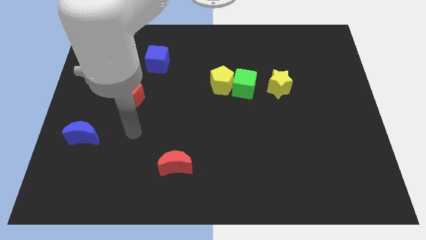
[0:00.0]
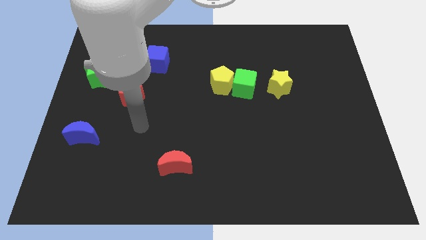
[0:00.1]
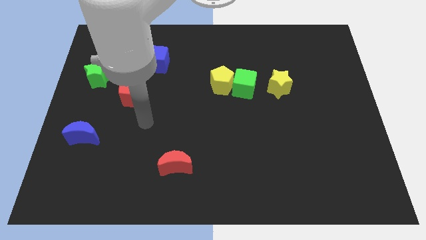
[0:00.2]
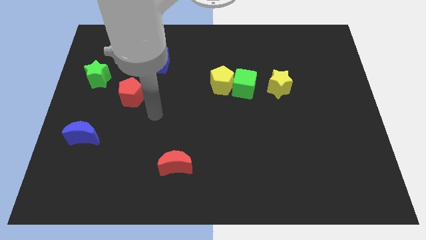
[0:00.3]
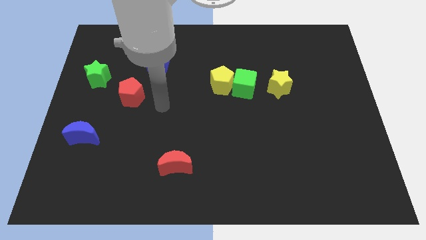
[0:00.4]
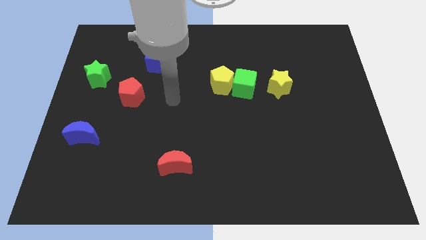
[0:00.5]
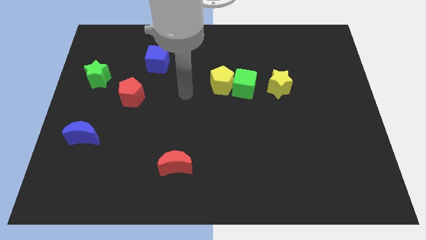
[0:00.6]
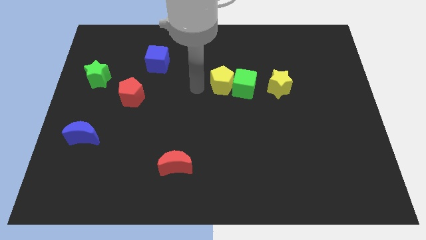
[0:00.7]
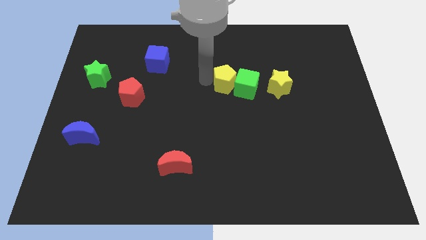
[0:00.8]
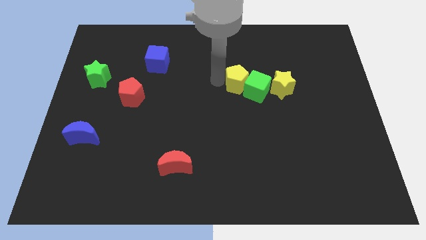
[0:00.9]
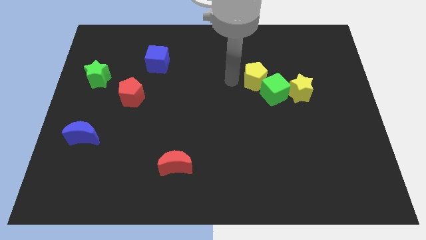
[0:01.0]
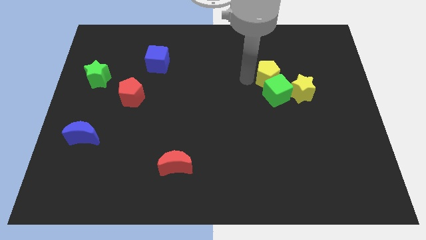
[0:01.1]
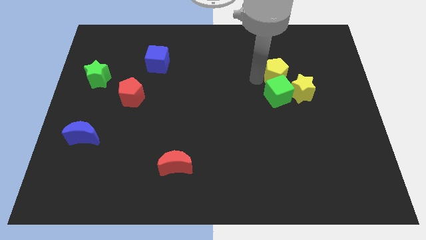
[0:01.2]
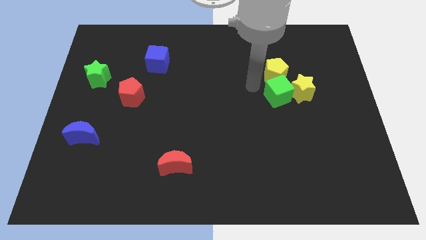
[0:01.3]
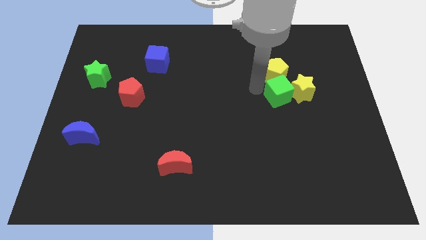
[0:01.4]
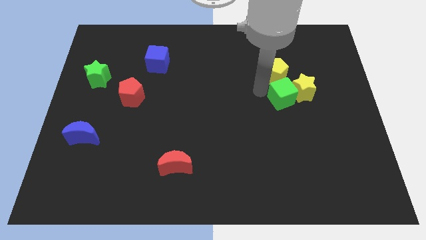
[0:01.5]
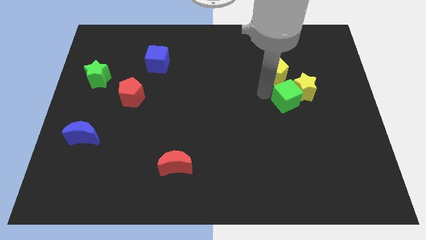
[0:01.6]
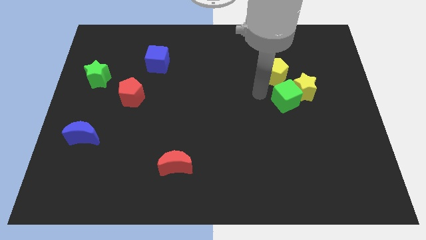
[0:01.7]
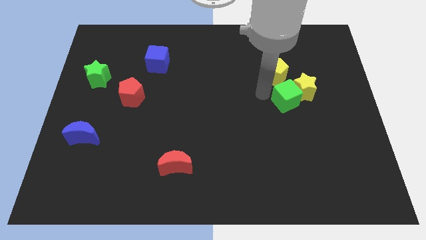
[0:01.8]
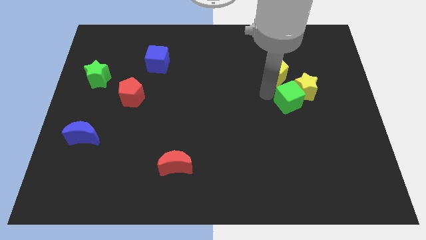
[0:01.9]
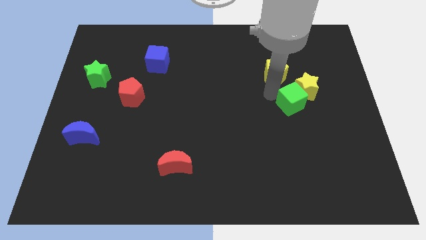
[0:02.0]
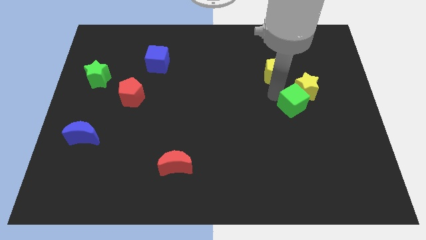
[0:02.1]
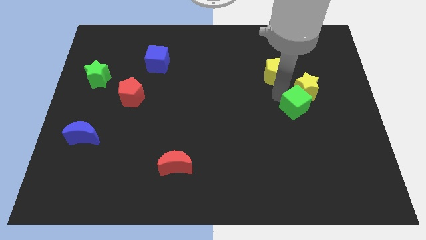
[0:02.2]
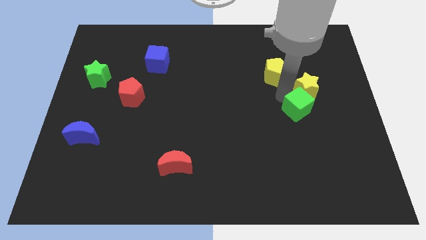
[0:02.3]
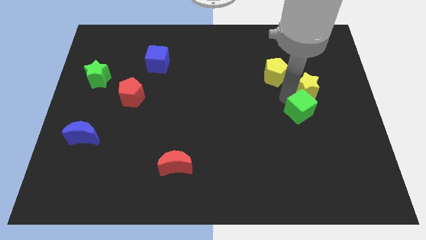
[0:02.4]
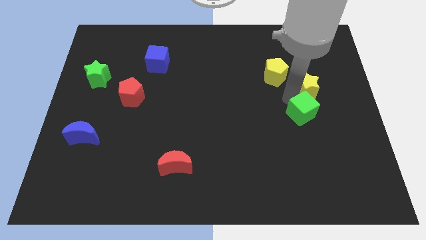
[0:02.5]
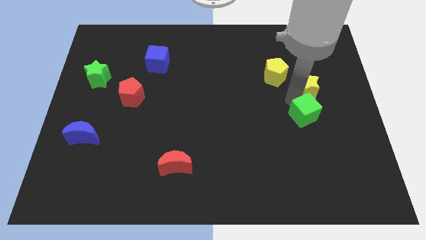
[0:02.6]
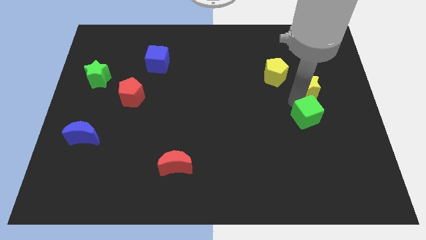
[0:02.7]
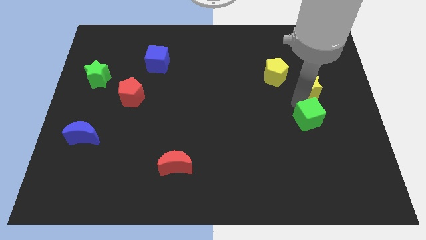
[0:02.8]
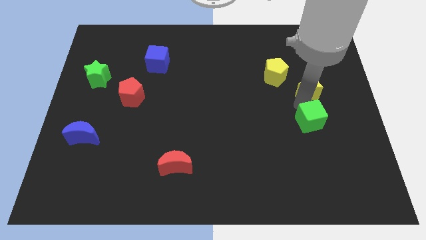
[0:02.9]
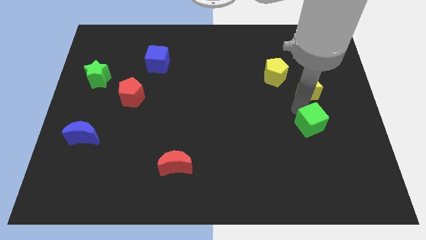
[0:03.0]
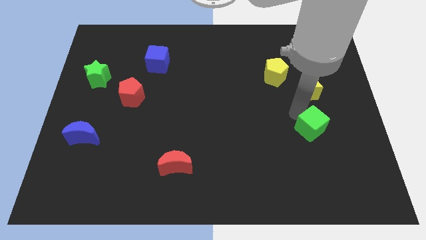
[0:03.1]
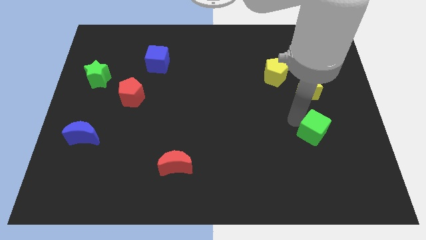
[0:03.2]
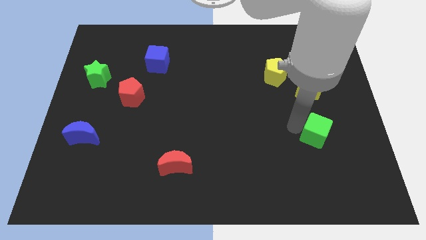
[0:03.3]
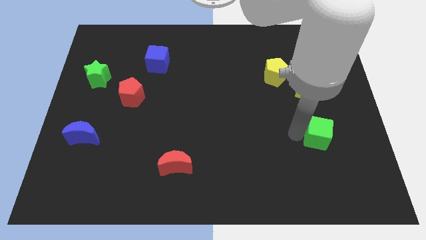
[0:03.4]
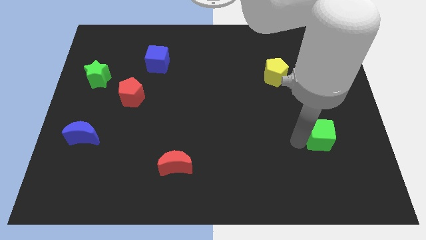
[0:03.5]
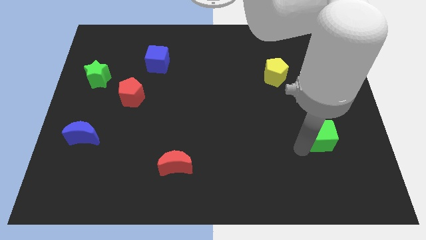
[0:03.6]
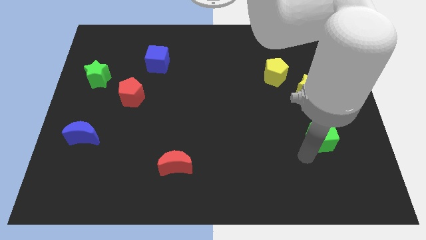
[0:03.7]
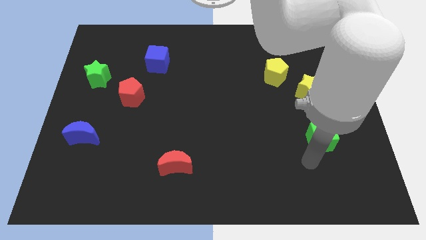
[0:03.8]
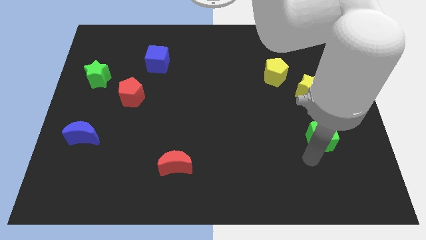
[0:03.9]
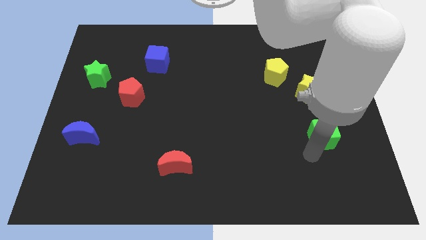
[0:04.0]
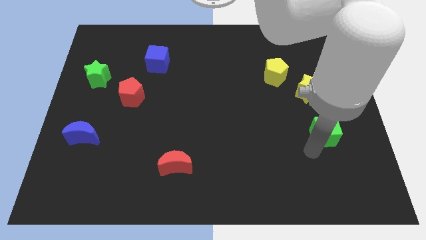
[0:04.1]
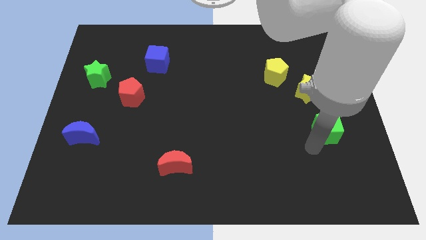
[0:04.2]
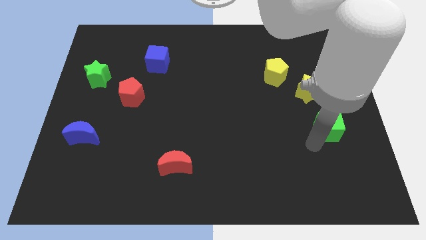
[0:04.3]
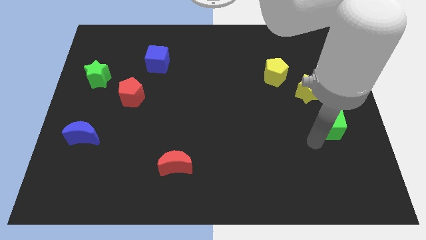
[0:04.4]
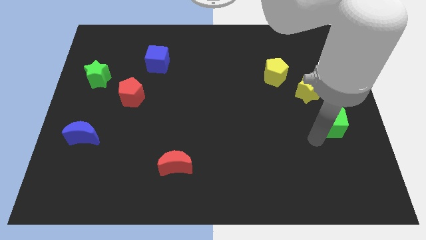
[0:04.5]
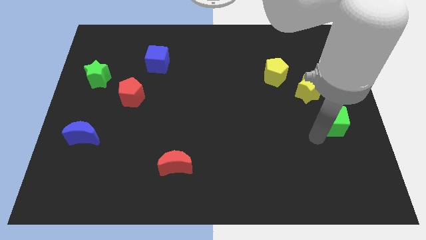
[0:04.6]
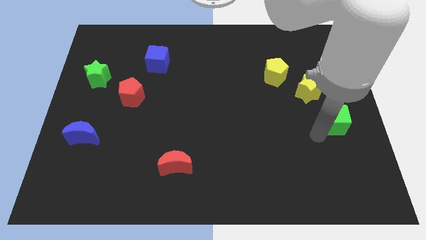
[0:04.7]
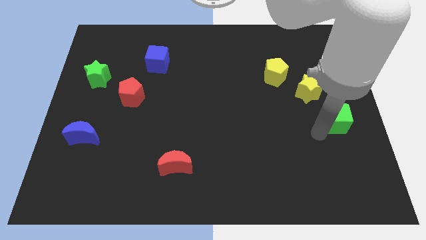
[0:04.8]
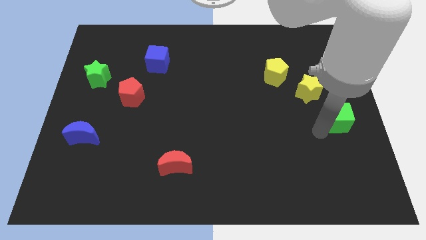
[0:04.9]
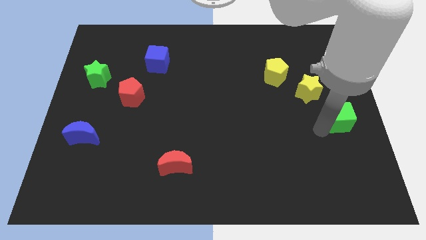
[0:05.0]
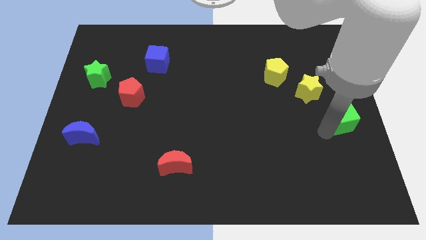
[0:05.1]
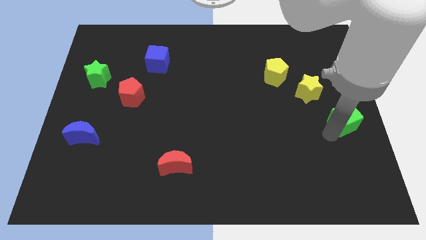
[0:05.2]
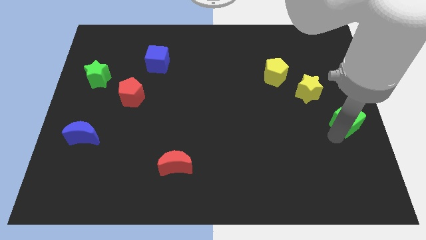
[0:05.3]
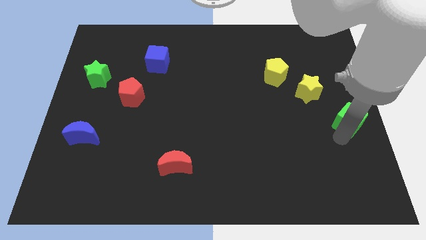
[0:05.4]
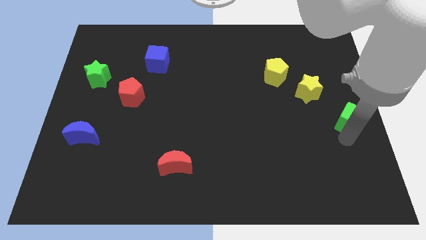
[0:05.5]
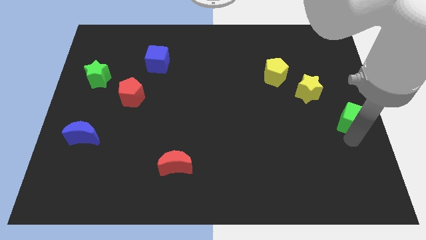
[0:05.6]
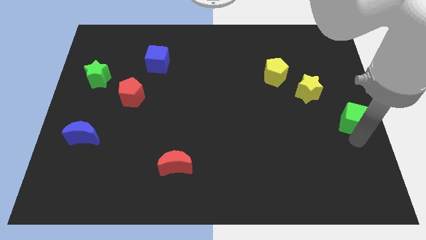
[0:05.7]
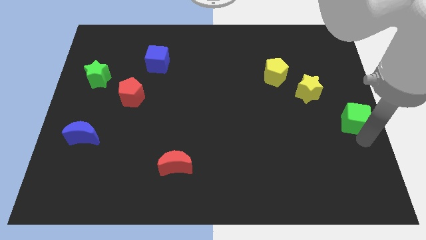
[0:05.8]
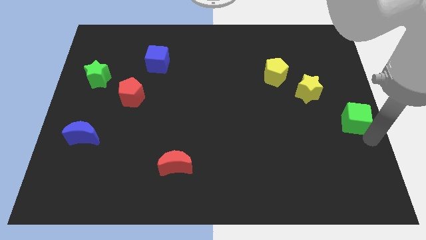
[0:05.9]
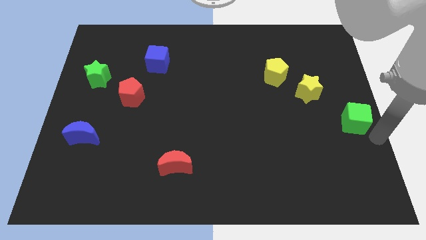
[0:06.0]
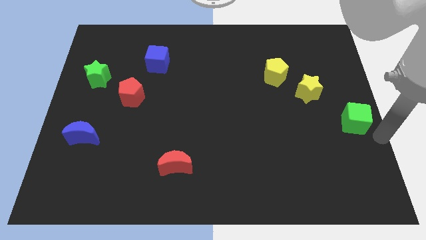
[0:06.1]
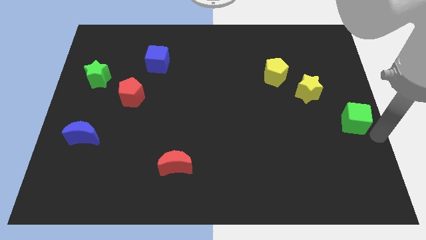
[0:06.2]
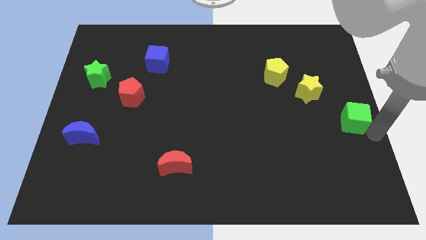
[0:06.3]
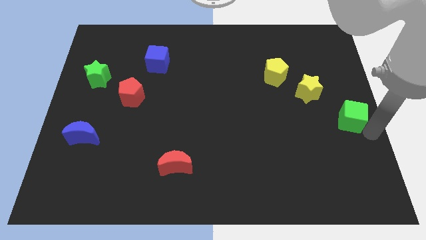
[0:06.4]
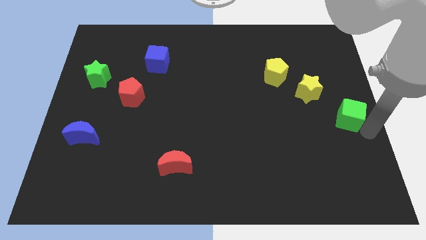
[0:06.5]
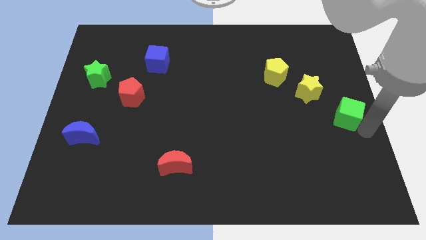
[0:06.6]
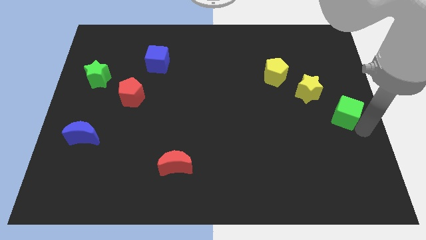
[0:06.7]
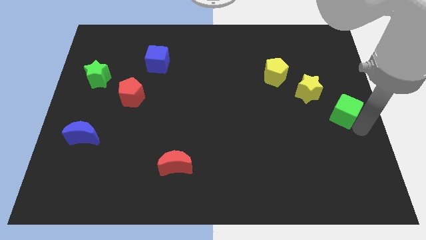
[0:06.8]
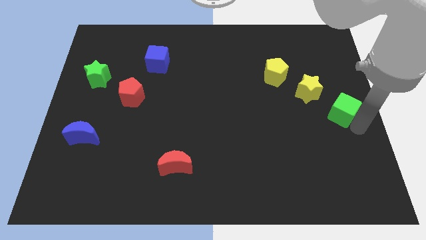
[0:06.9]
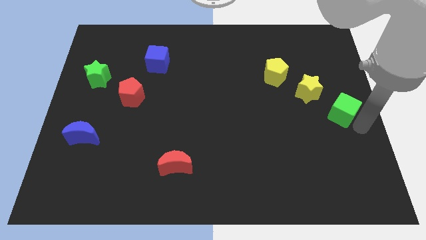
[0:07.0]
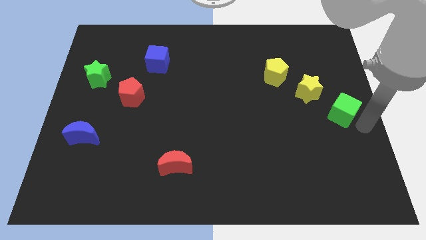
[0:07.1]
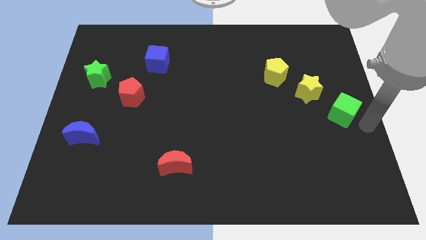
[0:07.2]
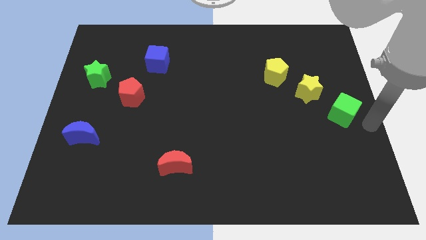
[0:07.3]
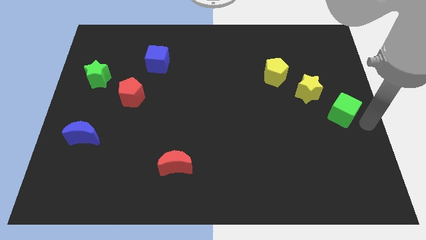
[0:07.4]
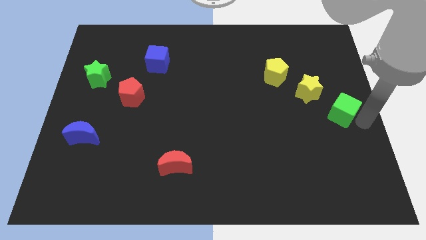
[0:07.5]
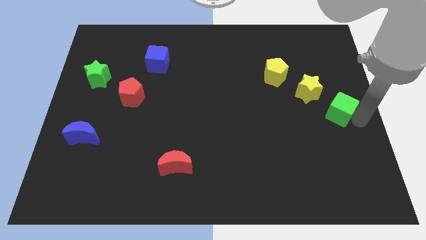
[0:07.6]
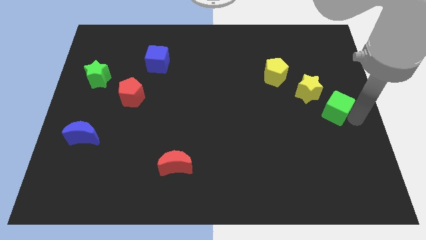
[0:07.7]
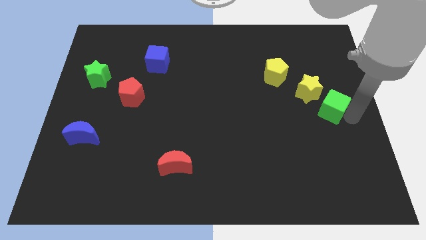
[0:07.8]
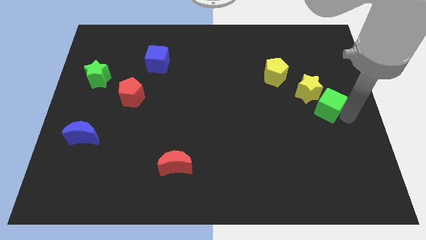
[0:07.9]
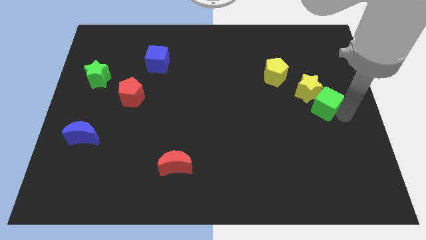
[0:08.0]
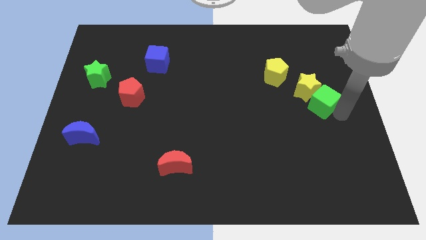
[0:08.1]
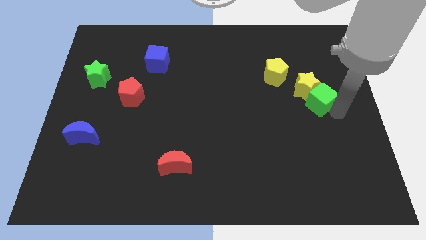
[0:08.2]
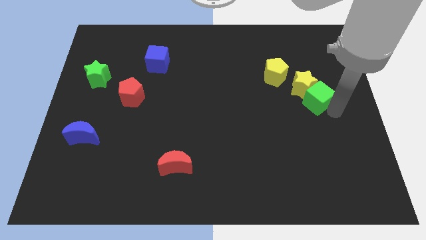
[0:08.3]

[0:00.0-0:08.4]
slide the green cube to the bottom right of the yellow star
